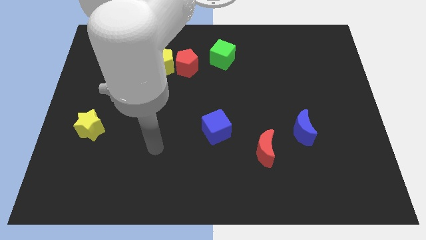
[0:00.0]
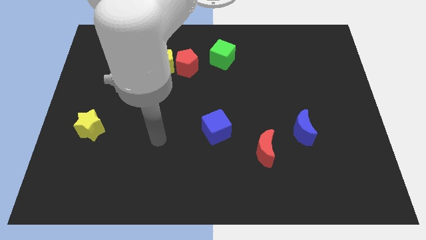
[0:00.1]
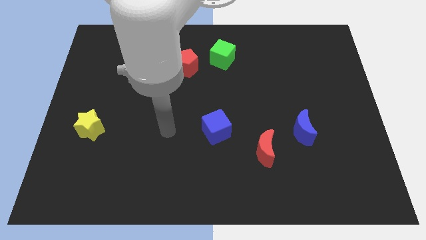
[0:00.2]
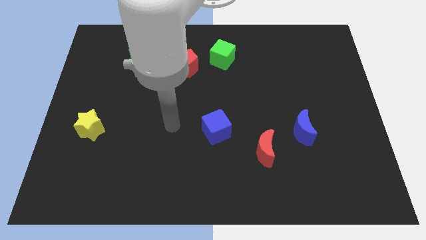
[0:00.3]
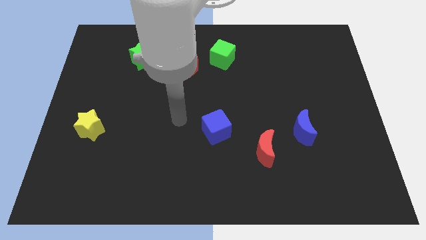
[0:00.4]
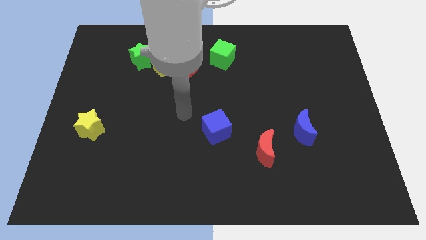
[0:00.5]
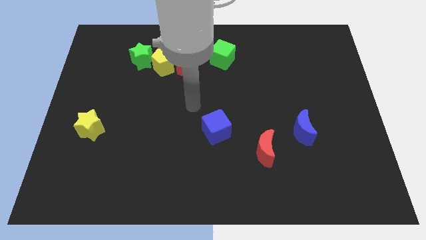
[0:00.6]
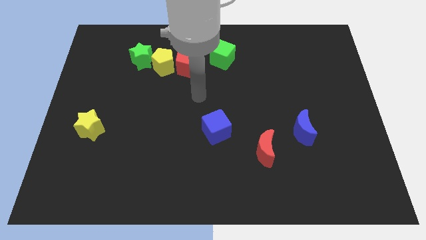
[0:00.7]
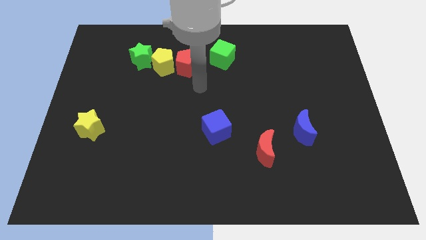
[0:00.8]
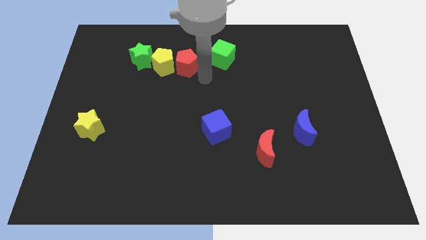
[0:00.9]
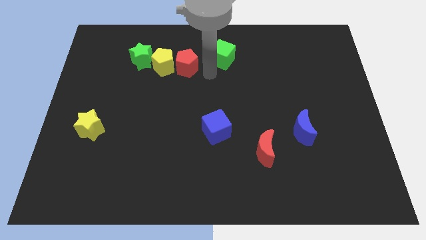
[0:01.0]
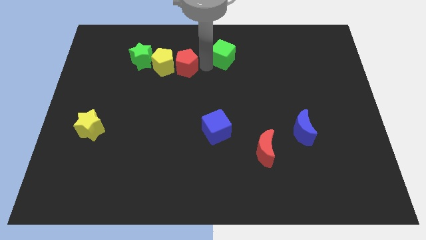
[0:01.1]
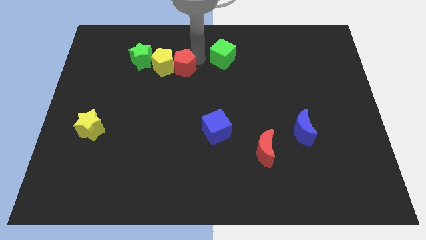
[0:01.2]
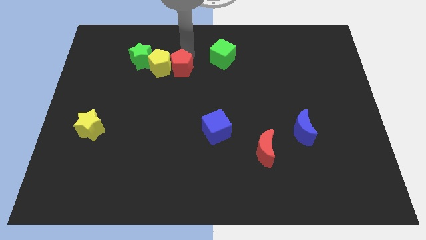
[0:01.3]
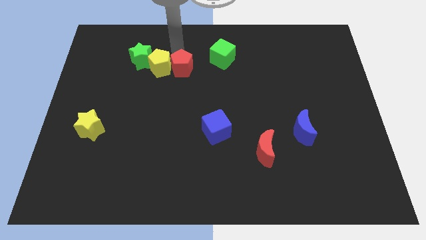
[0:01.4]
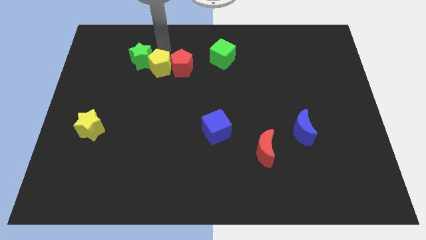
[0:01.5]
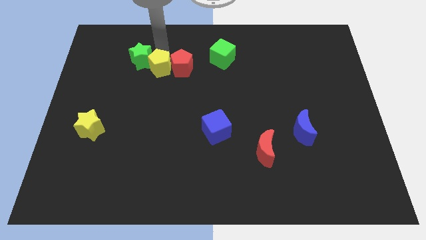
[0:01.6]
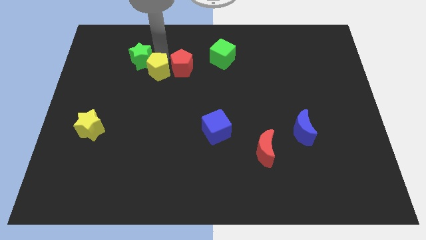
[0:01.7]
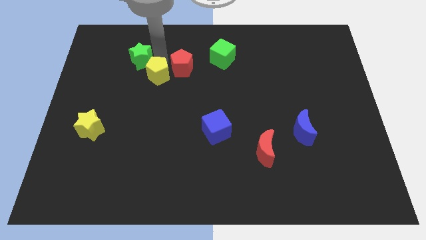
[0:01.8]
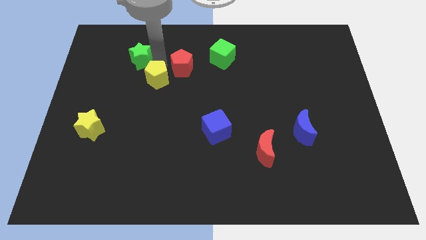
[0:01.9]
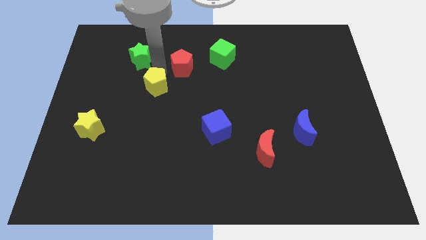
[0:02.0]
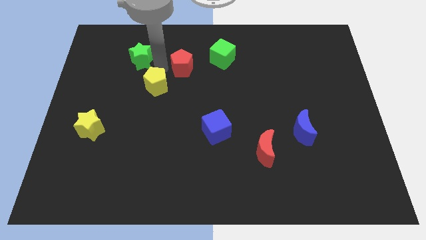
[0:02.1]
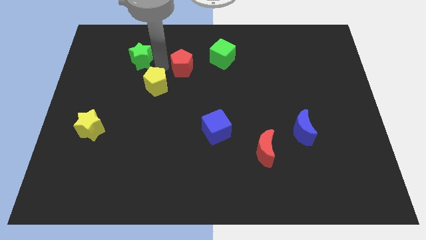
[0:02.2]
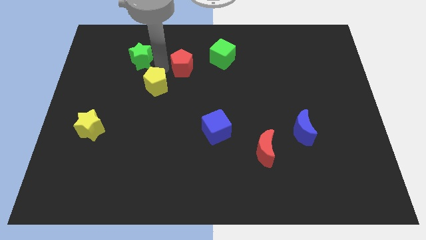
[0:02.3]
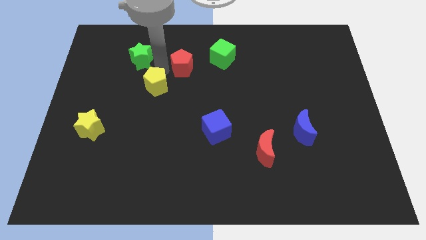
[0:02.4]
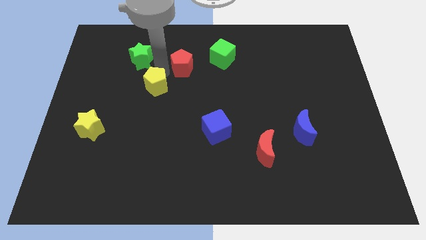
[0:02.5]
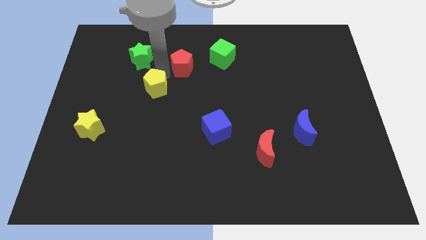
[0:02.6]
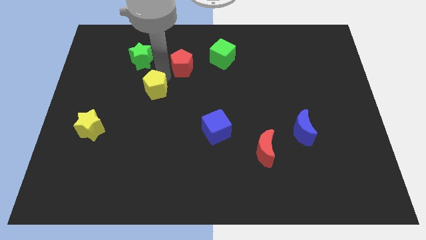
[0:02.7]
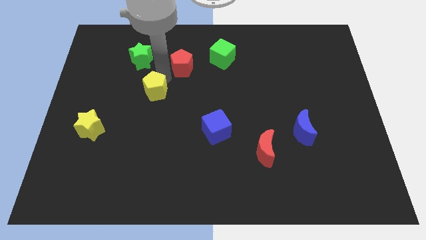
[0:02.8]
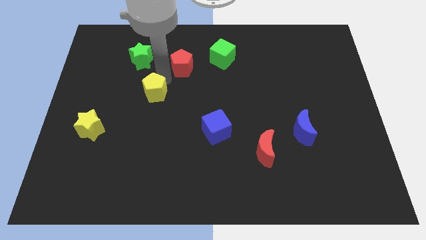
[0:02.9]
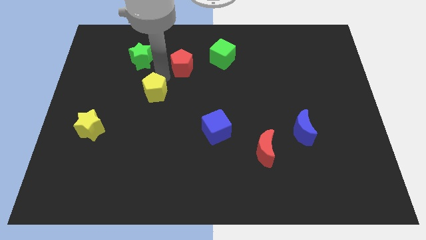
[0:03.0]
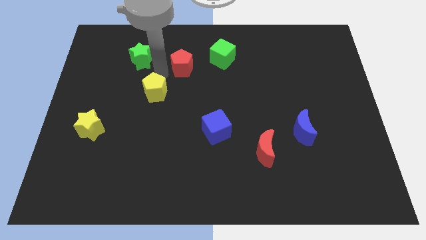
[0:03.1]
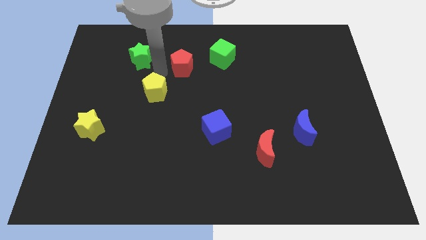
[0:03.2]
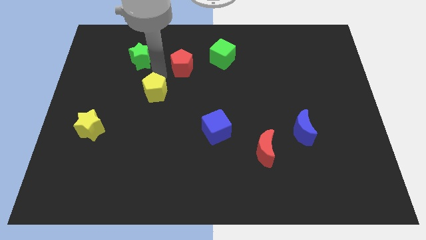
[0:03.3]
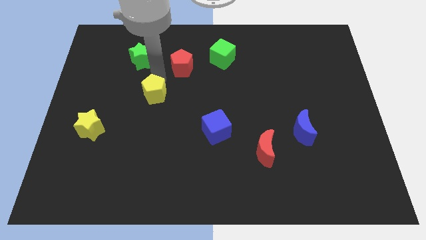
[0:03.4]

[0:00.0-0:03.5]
separate the yellow pentagon from the red pentagon and green star

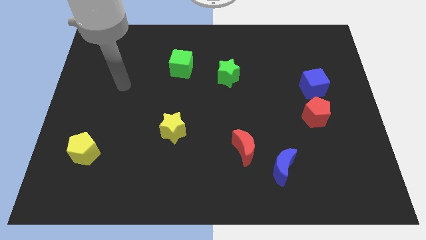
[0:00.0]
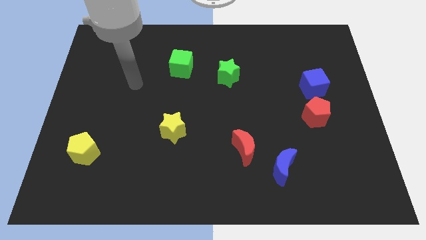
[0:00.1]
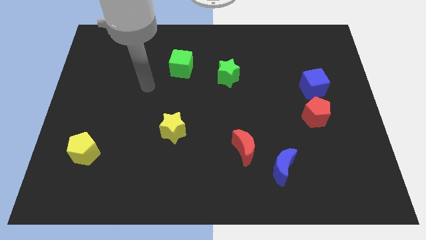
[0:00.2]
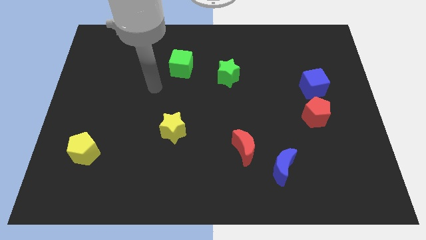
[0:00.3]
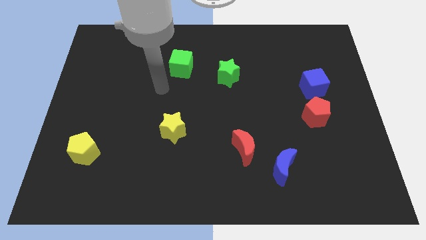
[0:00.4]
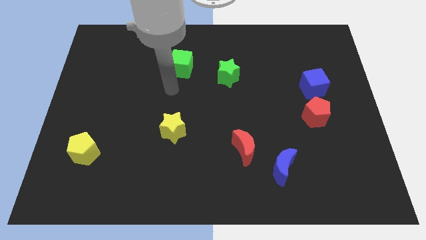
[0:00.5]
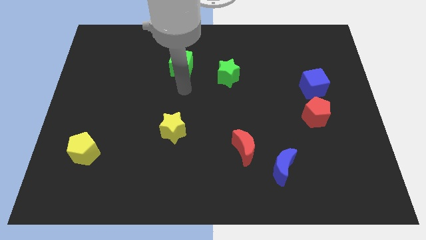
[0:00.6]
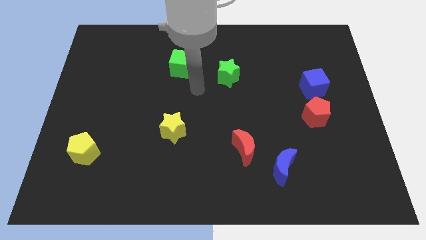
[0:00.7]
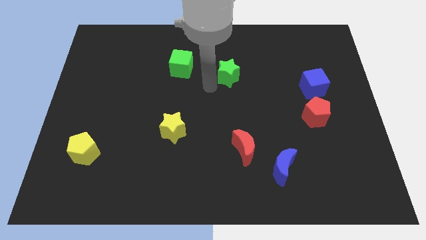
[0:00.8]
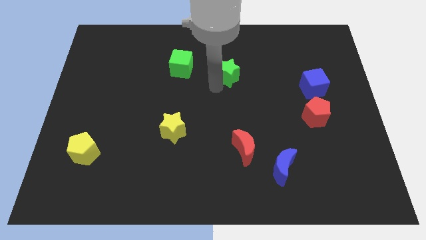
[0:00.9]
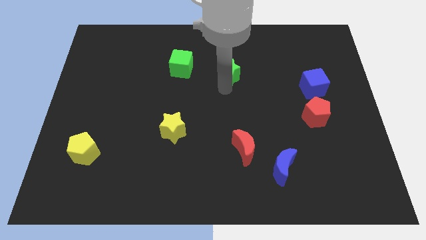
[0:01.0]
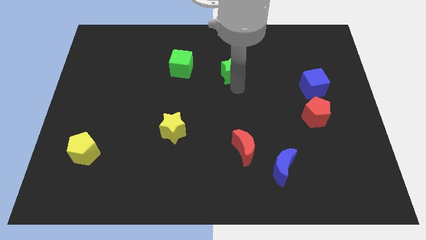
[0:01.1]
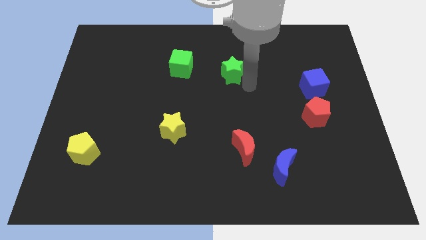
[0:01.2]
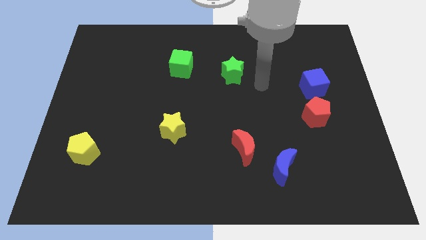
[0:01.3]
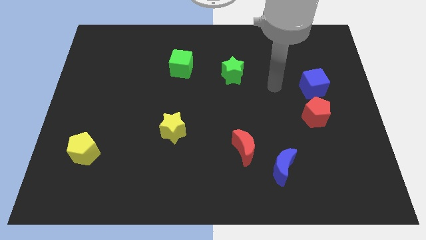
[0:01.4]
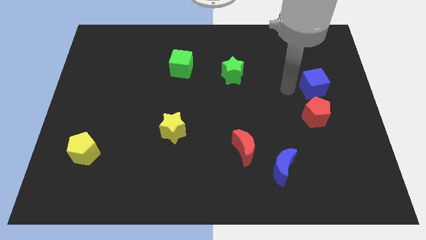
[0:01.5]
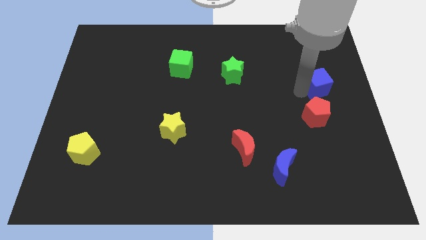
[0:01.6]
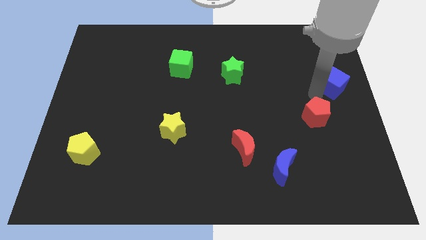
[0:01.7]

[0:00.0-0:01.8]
pull the red pentagon apart from the blue cube

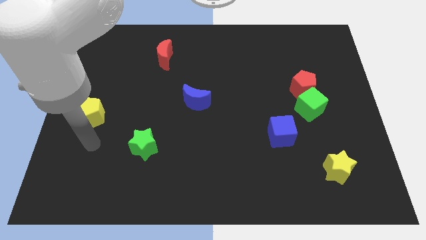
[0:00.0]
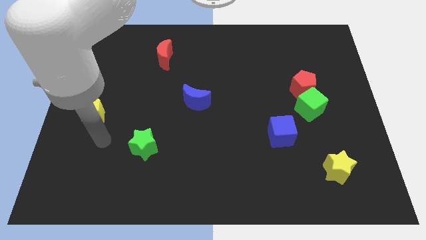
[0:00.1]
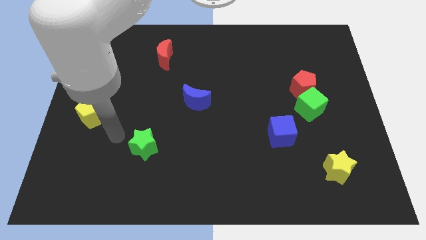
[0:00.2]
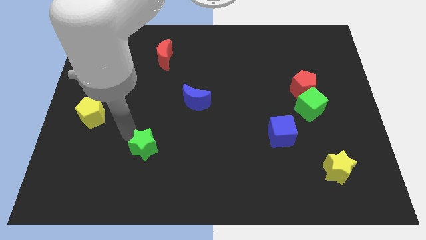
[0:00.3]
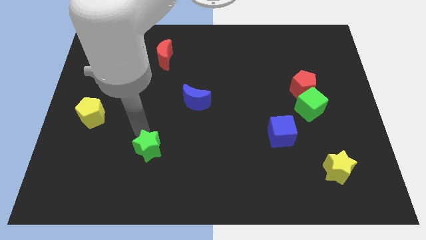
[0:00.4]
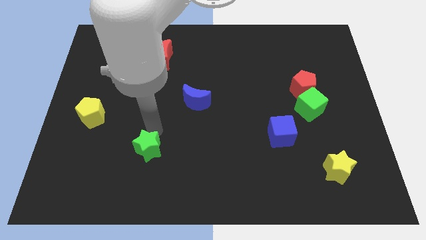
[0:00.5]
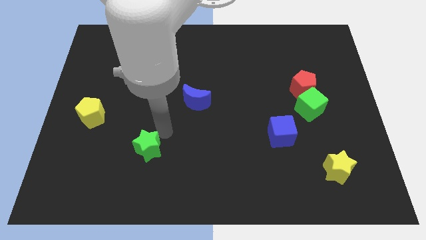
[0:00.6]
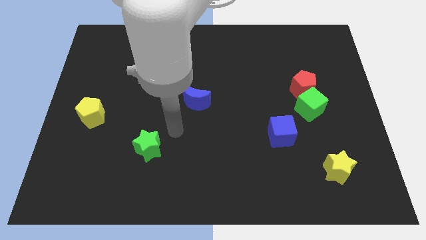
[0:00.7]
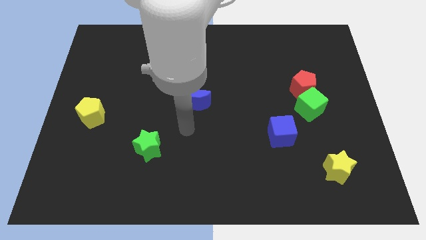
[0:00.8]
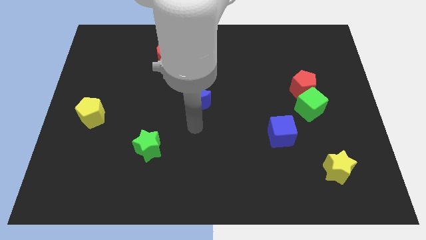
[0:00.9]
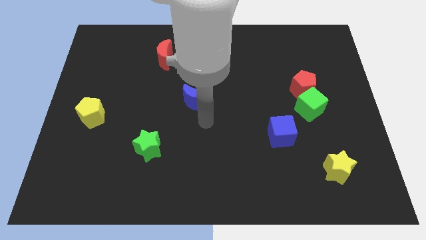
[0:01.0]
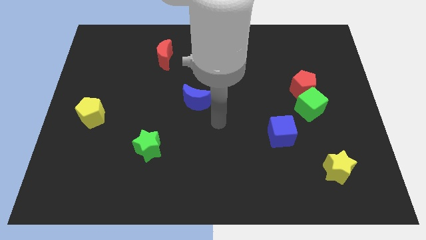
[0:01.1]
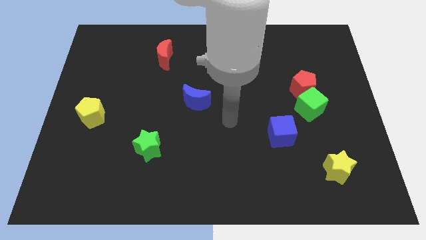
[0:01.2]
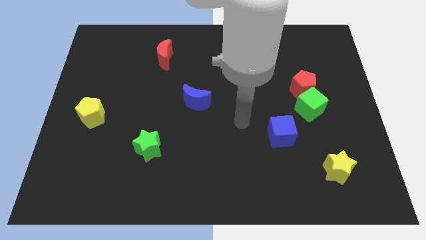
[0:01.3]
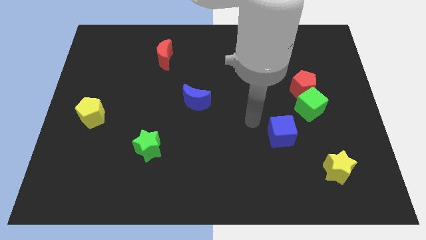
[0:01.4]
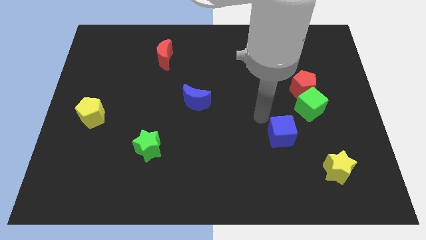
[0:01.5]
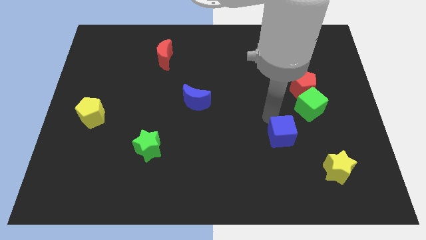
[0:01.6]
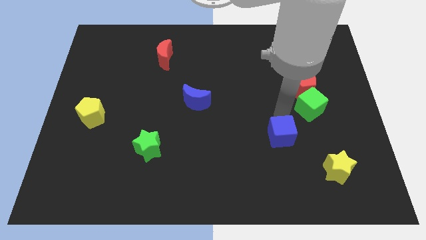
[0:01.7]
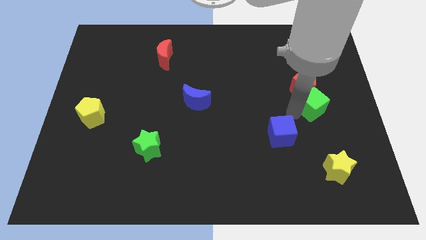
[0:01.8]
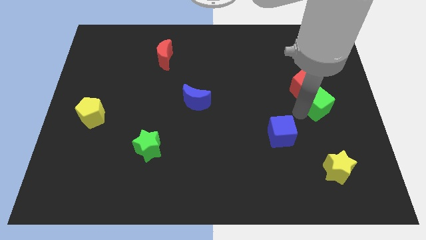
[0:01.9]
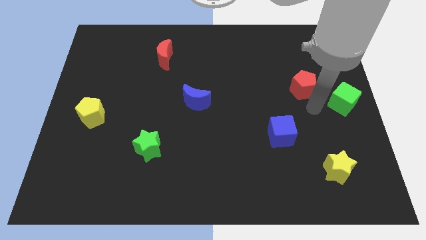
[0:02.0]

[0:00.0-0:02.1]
pull the red pentagon apart from the green cube

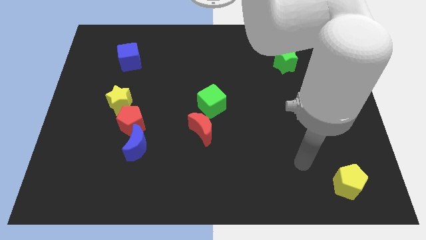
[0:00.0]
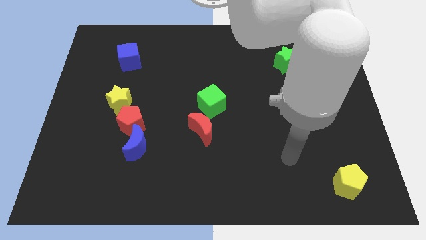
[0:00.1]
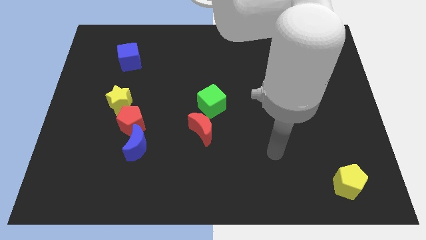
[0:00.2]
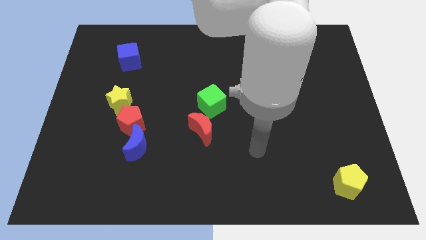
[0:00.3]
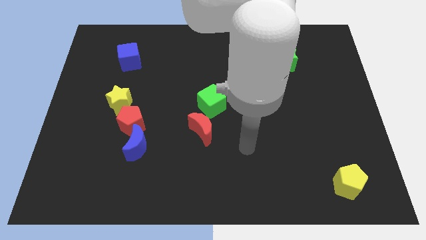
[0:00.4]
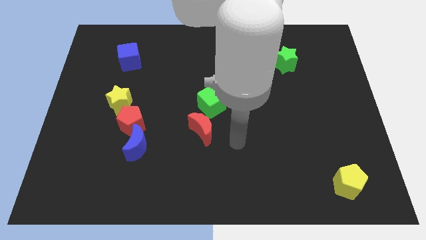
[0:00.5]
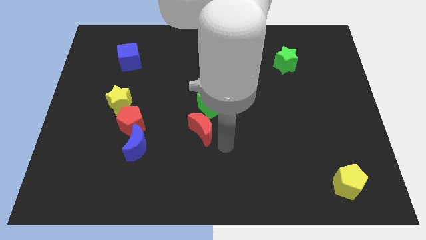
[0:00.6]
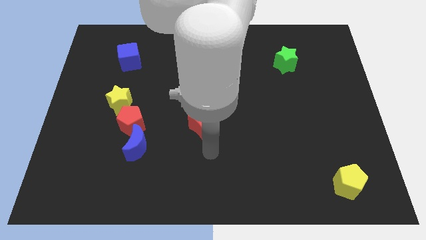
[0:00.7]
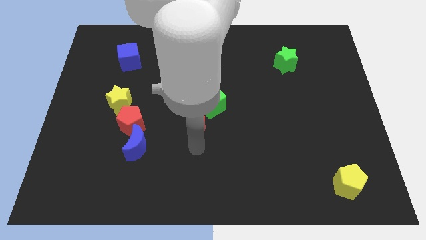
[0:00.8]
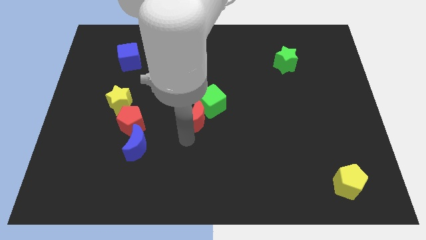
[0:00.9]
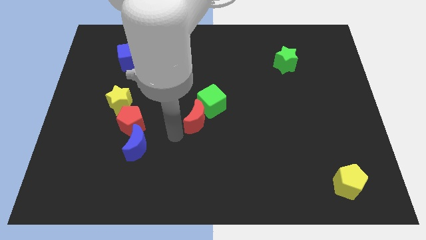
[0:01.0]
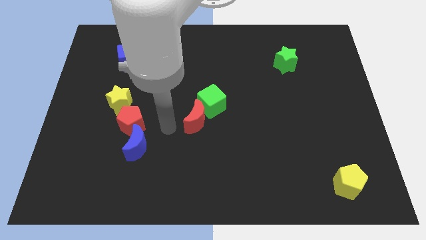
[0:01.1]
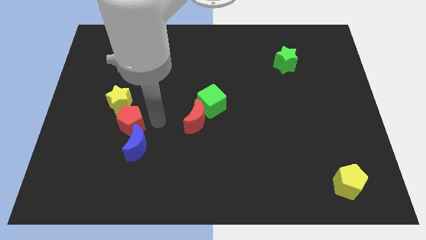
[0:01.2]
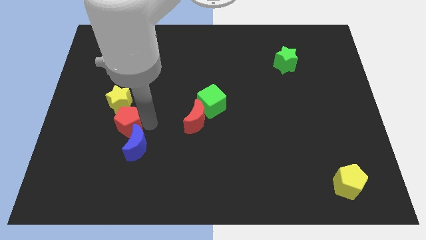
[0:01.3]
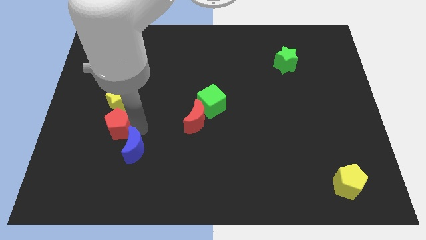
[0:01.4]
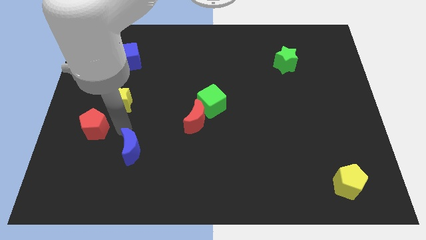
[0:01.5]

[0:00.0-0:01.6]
pull the blue moon apart from the red pentagon

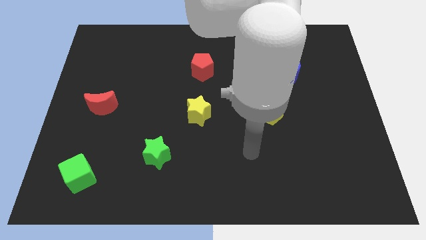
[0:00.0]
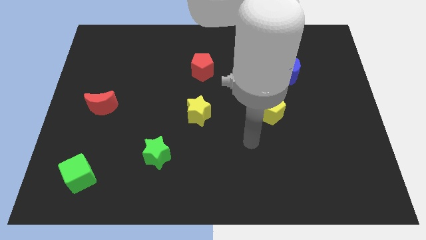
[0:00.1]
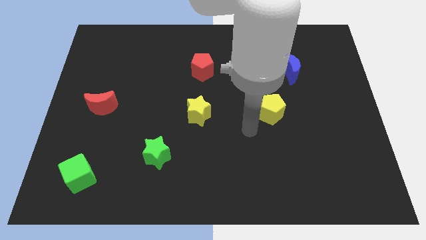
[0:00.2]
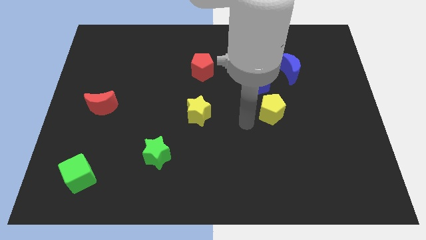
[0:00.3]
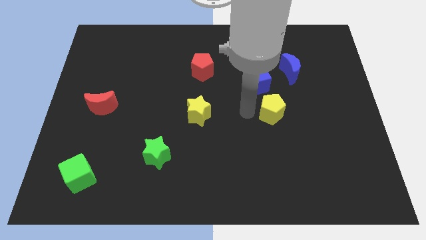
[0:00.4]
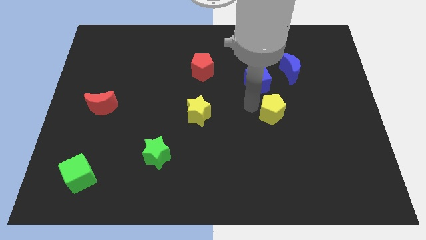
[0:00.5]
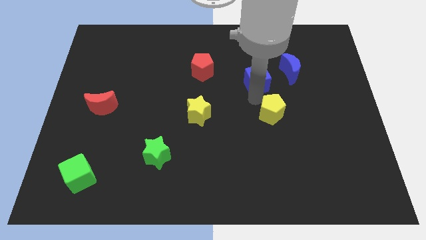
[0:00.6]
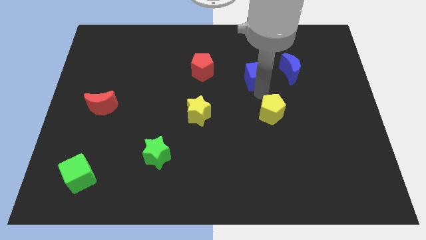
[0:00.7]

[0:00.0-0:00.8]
move the yellow pentagon away from the blue cube
